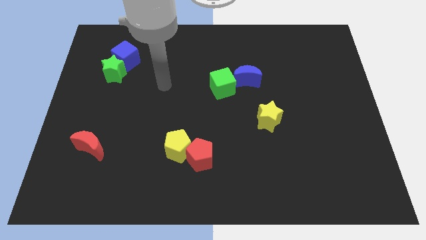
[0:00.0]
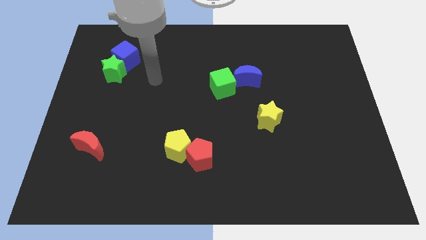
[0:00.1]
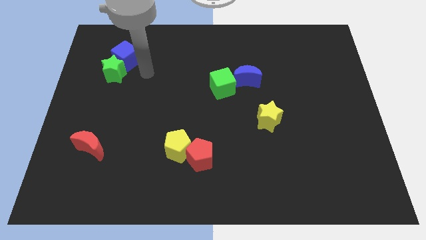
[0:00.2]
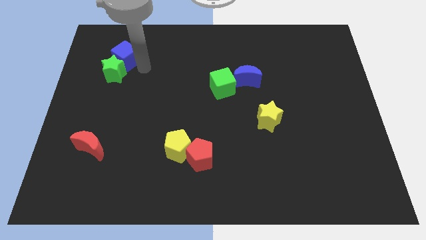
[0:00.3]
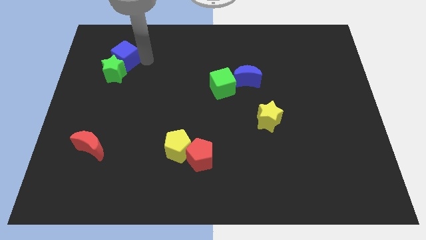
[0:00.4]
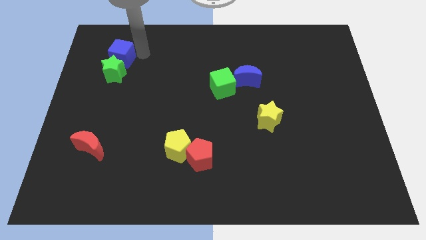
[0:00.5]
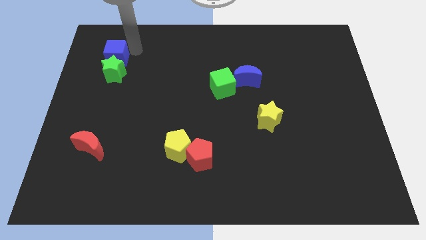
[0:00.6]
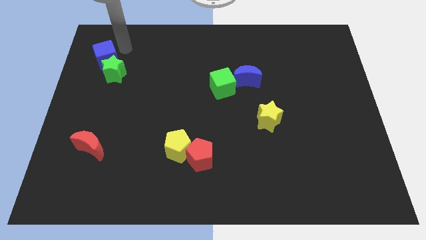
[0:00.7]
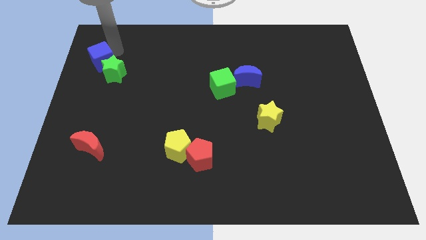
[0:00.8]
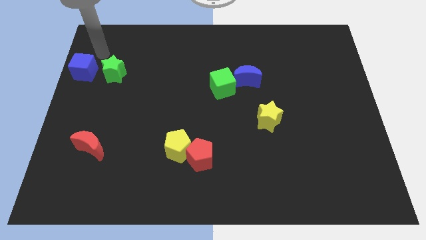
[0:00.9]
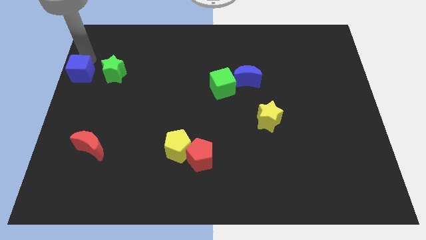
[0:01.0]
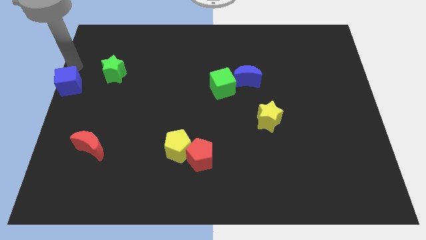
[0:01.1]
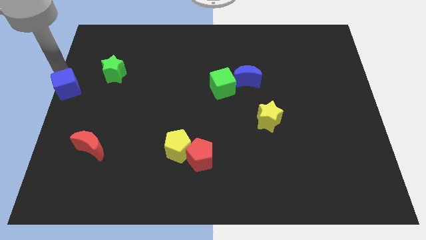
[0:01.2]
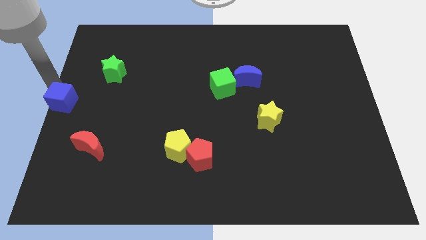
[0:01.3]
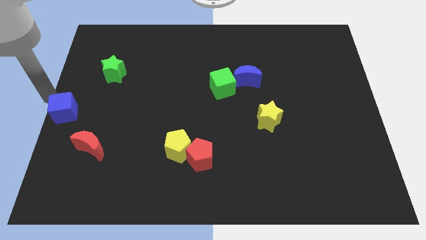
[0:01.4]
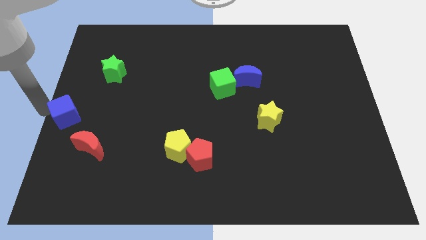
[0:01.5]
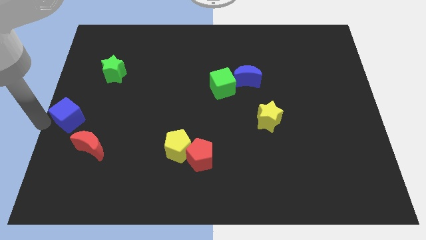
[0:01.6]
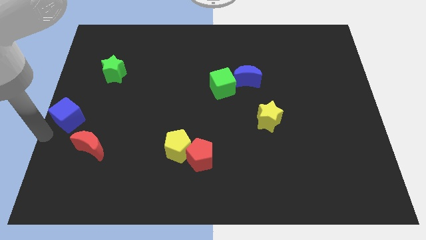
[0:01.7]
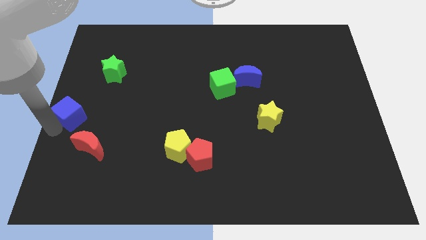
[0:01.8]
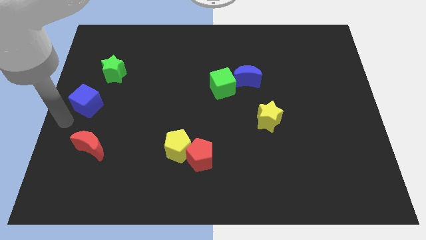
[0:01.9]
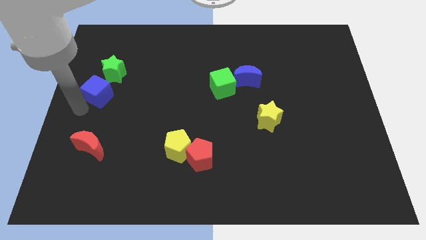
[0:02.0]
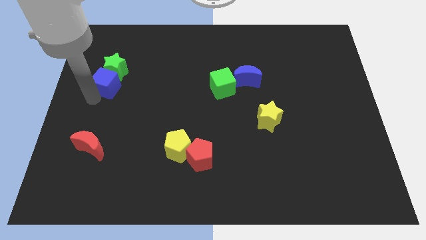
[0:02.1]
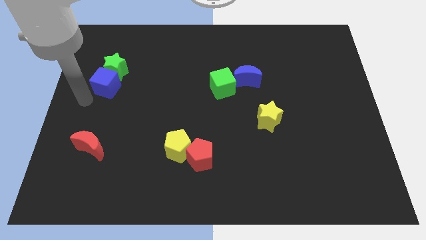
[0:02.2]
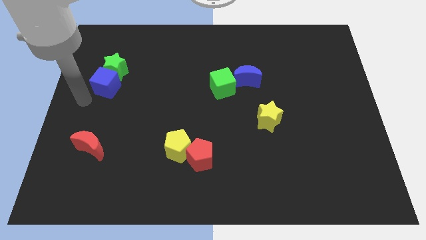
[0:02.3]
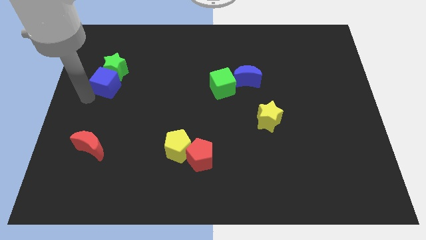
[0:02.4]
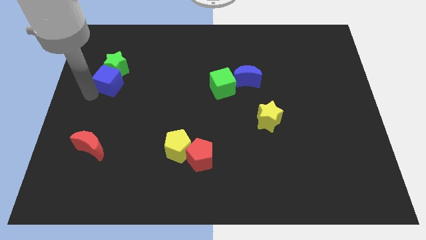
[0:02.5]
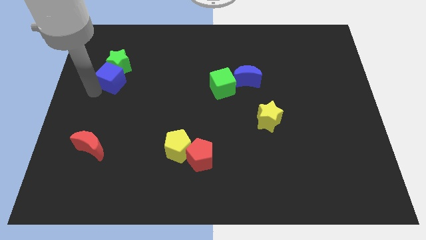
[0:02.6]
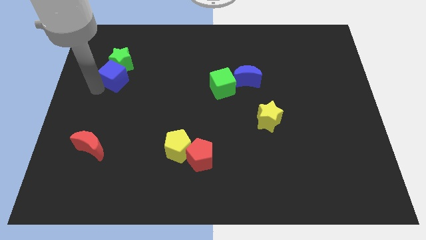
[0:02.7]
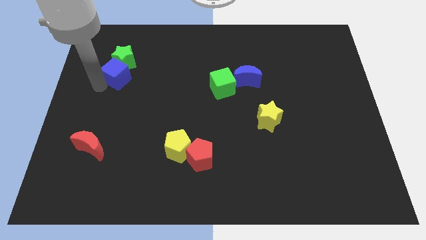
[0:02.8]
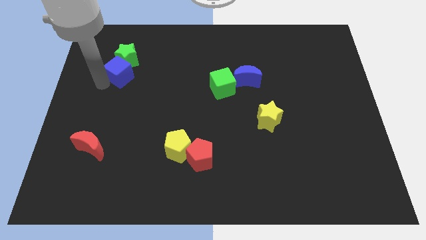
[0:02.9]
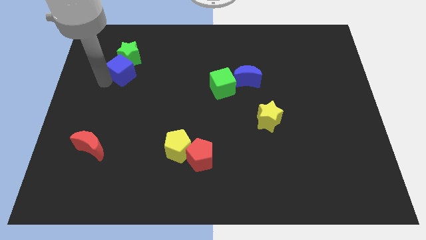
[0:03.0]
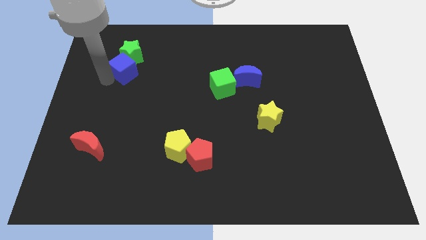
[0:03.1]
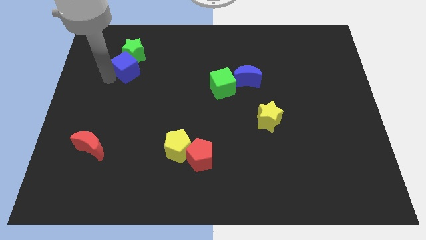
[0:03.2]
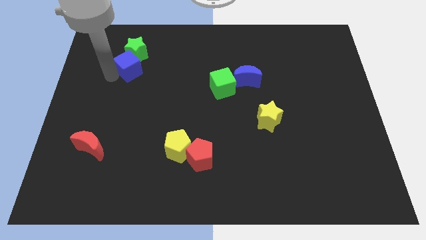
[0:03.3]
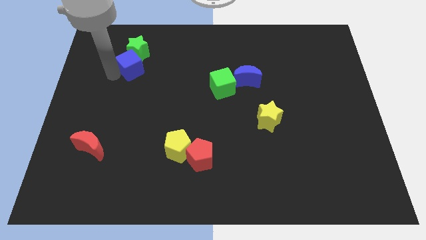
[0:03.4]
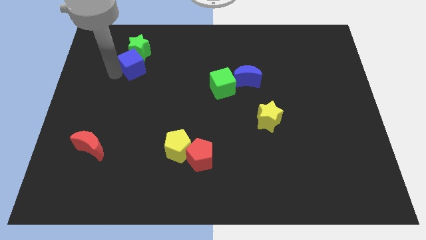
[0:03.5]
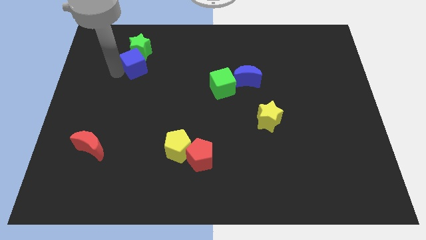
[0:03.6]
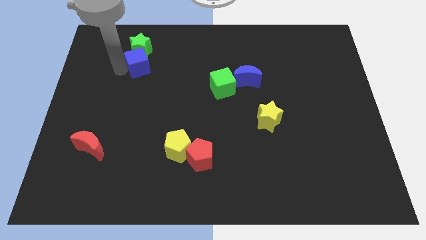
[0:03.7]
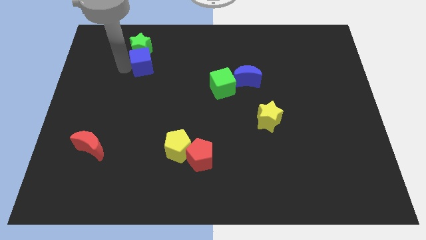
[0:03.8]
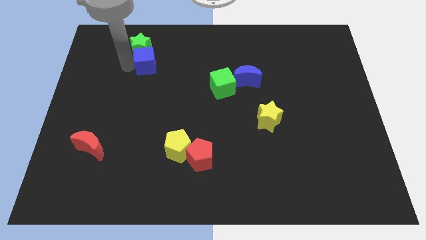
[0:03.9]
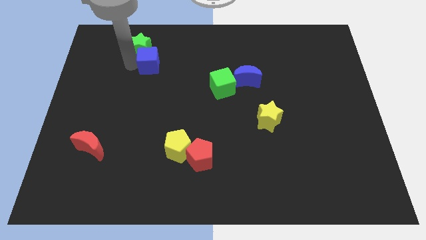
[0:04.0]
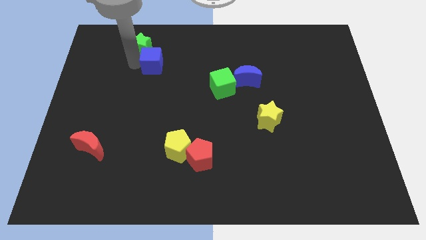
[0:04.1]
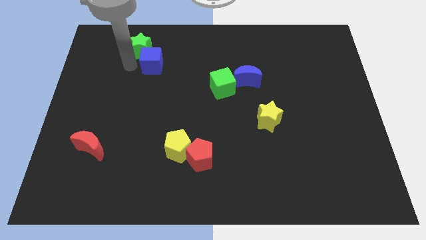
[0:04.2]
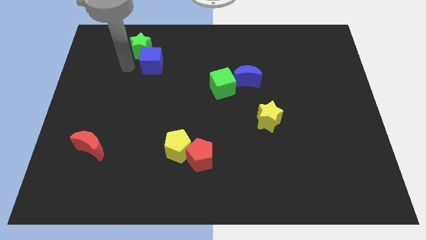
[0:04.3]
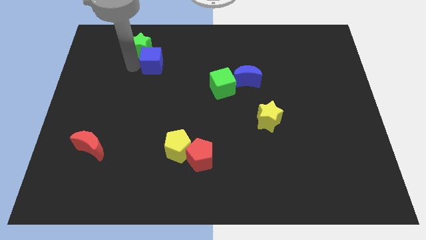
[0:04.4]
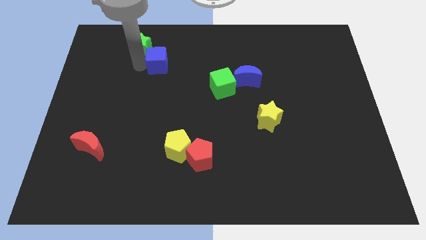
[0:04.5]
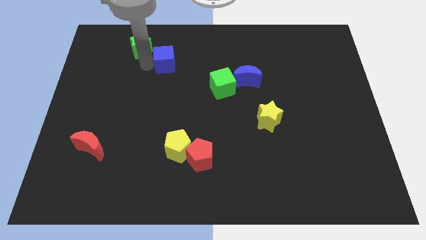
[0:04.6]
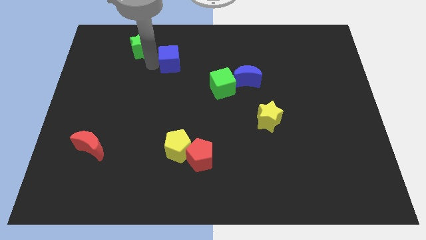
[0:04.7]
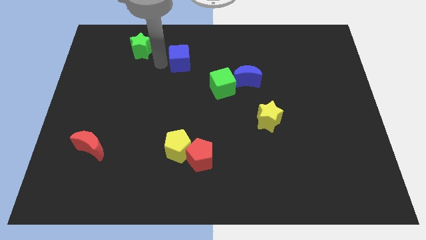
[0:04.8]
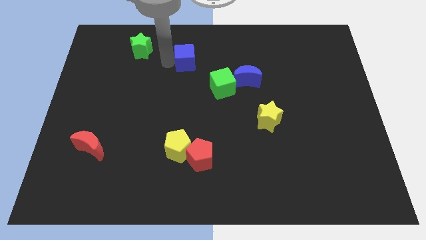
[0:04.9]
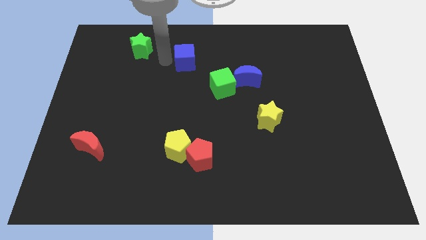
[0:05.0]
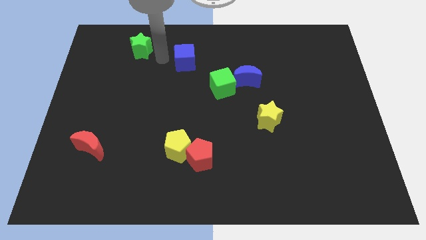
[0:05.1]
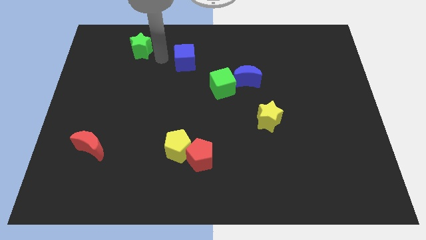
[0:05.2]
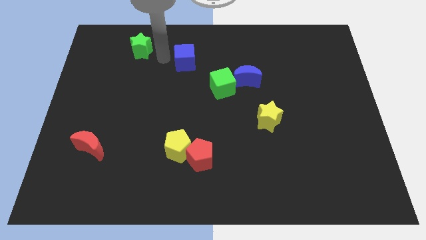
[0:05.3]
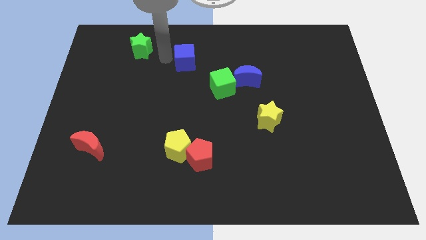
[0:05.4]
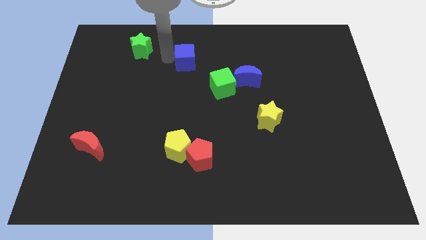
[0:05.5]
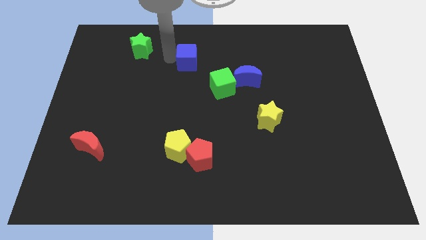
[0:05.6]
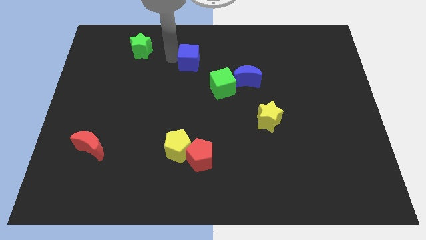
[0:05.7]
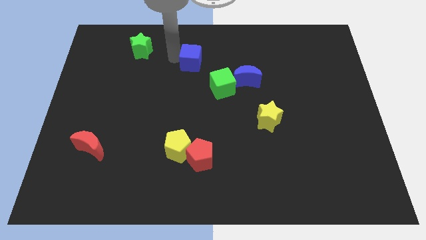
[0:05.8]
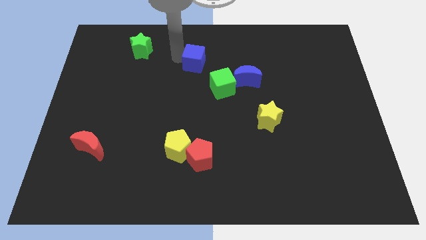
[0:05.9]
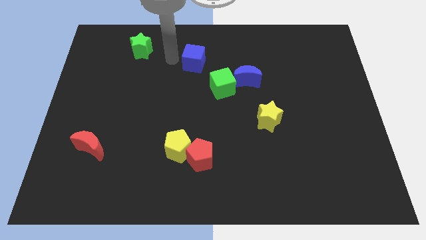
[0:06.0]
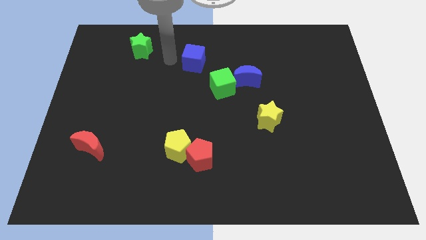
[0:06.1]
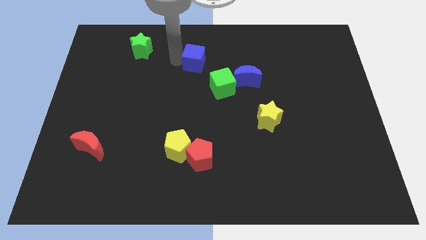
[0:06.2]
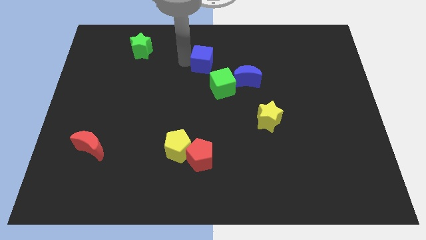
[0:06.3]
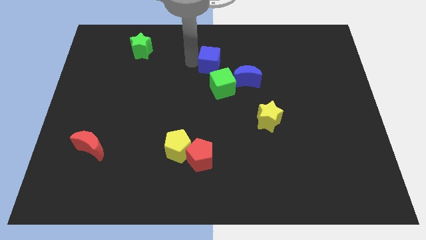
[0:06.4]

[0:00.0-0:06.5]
slide the blue cube diagonally up and to the left of the blue moon

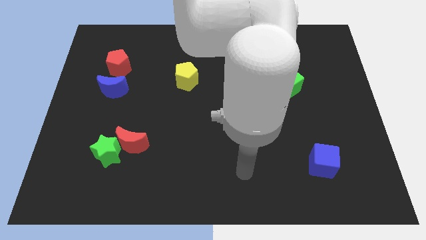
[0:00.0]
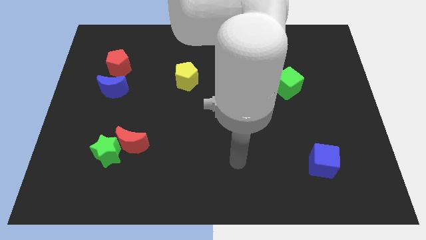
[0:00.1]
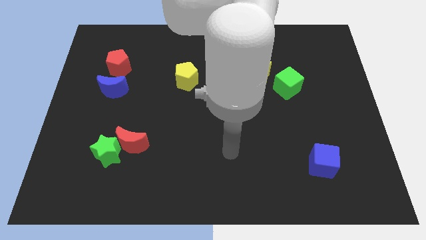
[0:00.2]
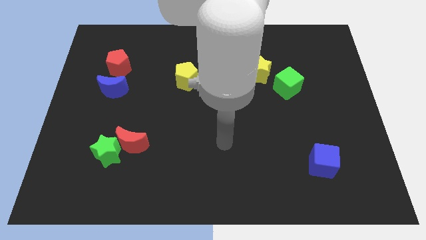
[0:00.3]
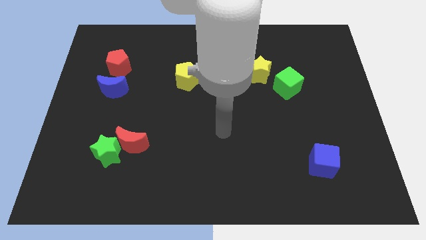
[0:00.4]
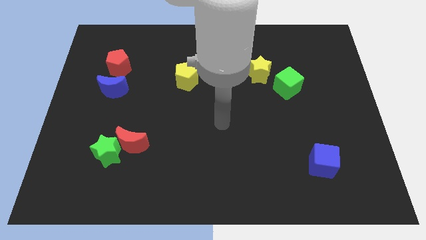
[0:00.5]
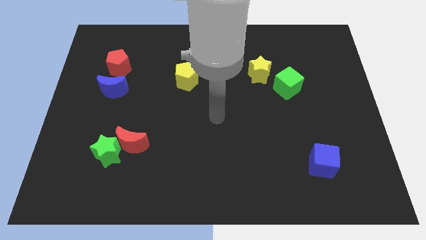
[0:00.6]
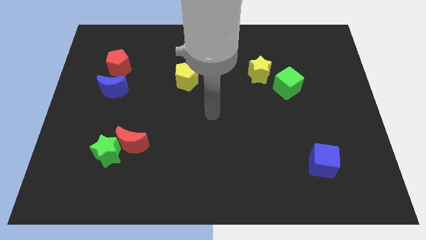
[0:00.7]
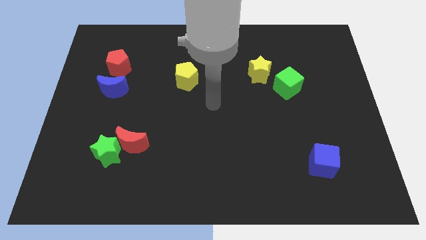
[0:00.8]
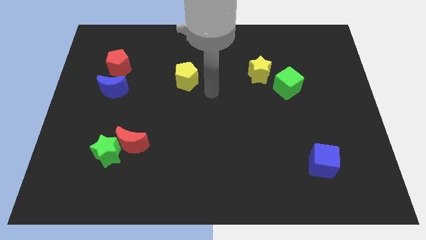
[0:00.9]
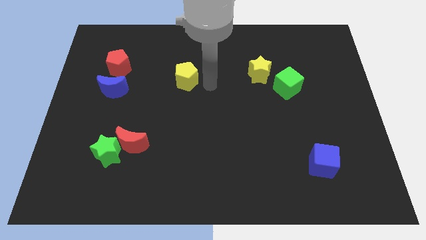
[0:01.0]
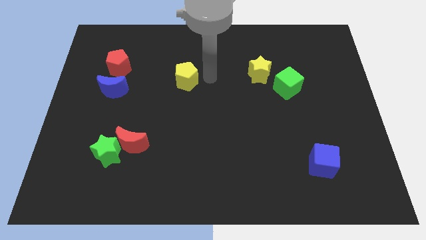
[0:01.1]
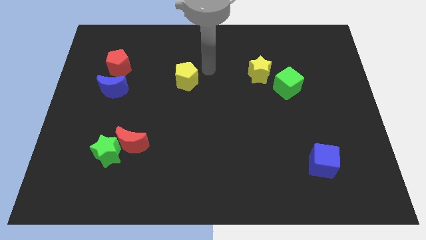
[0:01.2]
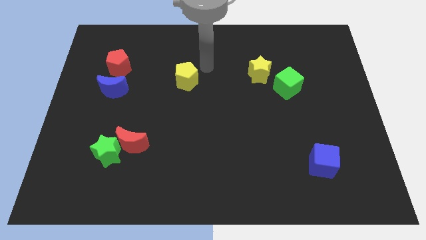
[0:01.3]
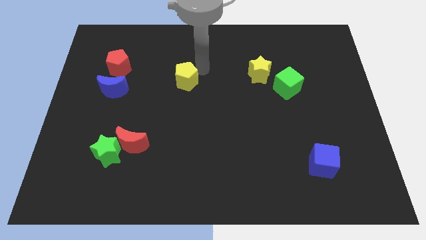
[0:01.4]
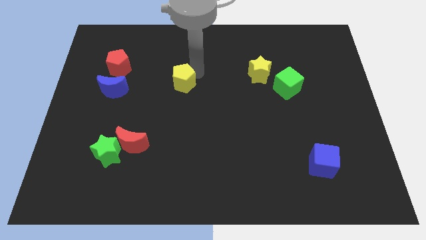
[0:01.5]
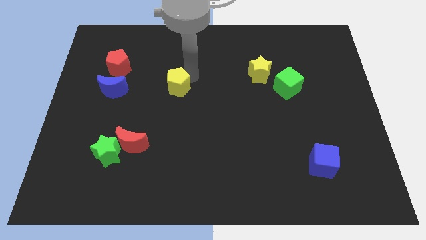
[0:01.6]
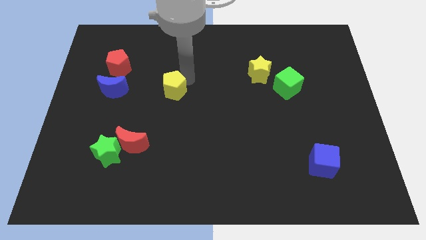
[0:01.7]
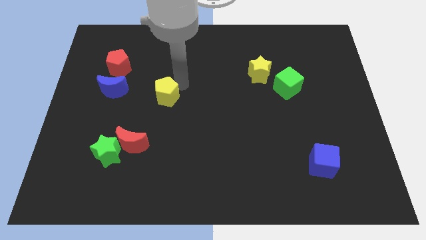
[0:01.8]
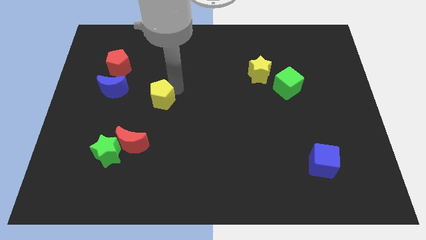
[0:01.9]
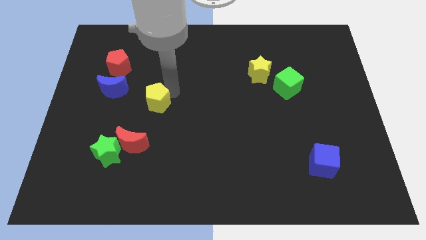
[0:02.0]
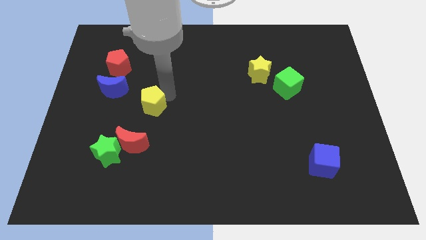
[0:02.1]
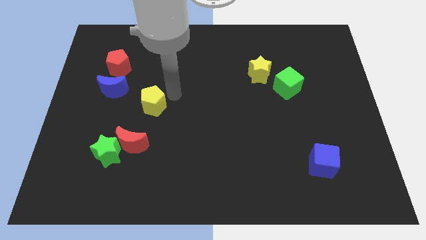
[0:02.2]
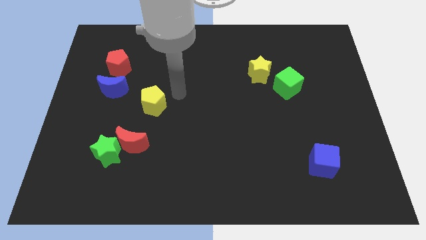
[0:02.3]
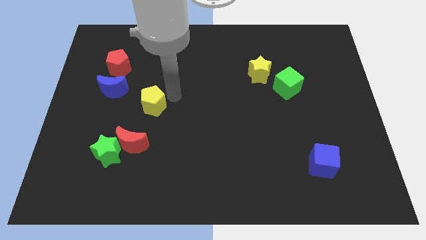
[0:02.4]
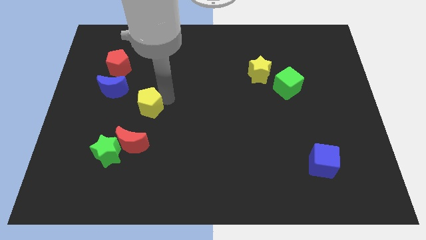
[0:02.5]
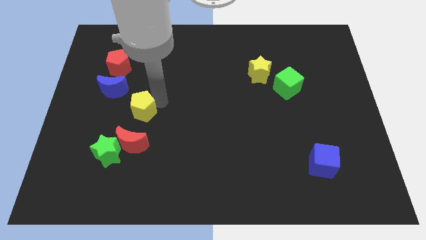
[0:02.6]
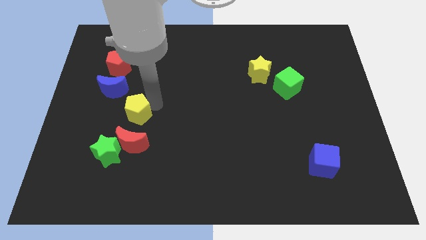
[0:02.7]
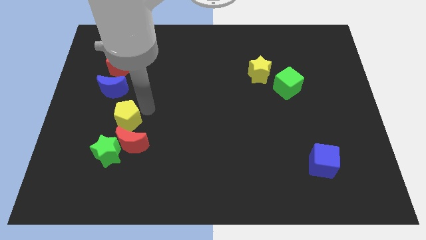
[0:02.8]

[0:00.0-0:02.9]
put the yellow pentagon below the blue moon
